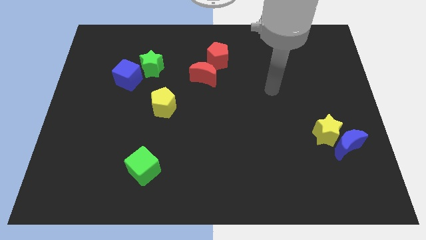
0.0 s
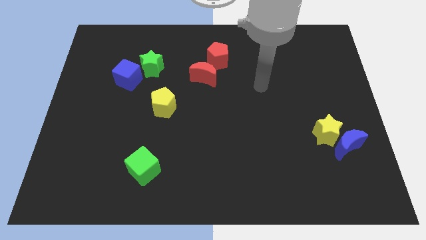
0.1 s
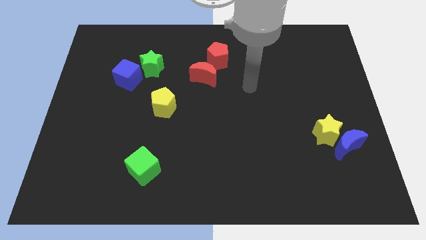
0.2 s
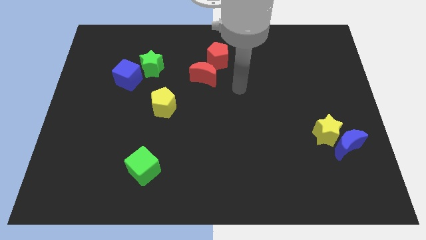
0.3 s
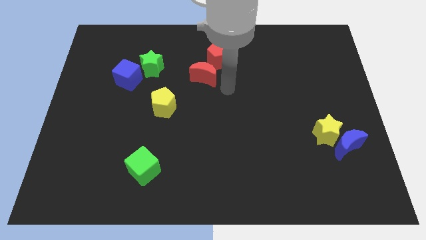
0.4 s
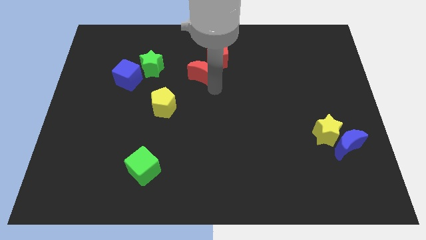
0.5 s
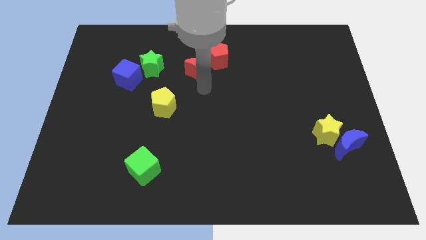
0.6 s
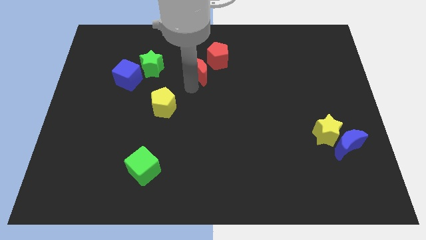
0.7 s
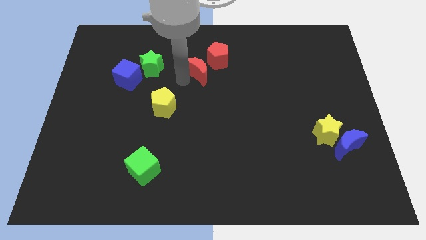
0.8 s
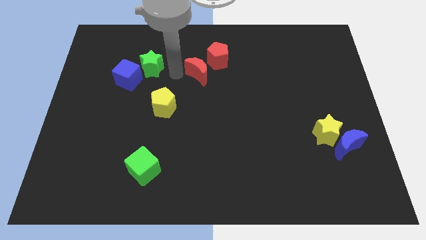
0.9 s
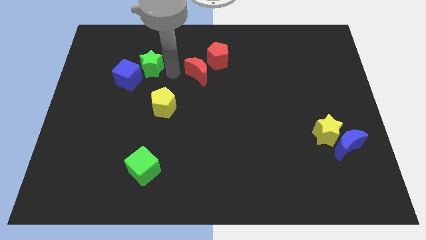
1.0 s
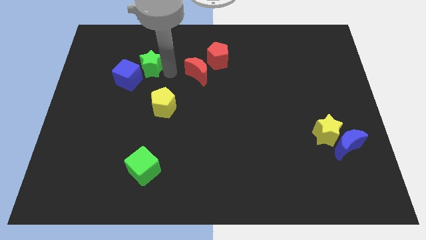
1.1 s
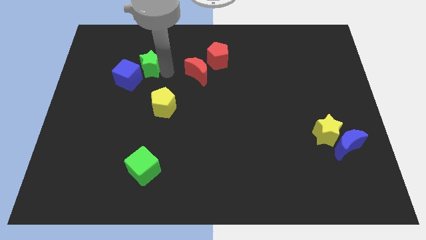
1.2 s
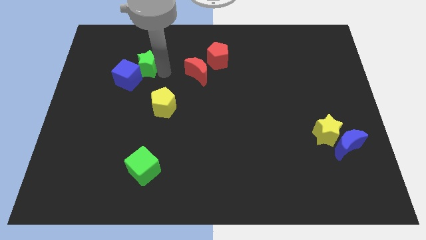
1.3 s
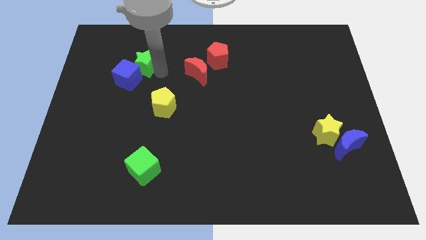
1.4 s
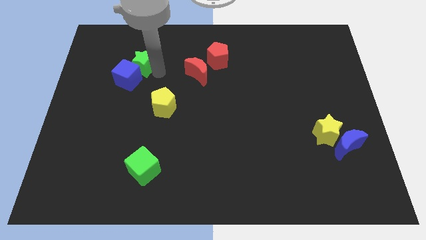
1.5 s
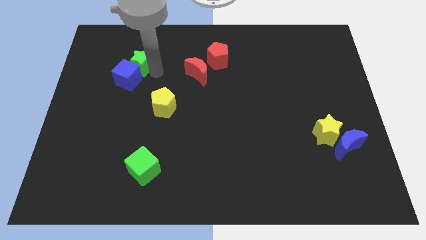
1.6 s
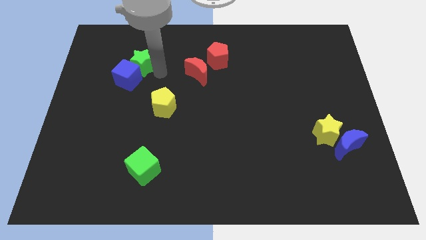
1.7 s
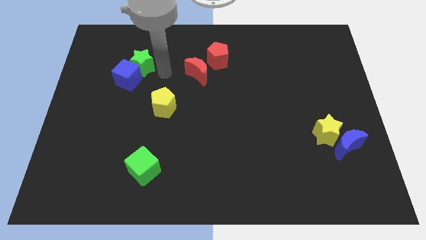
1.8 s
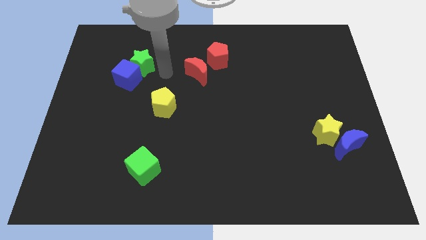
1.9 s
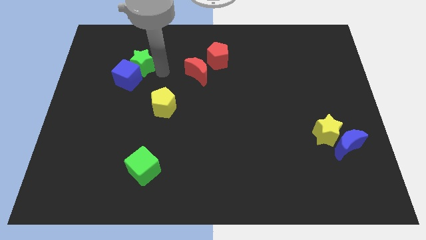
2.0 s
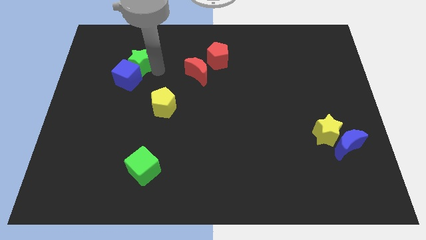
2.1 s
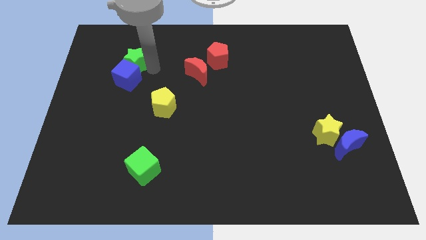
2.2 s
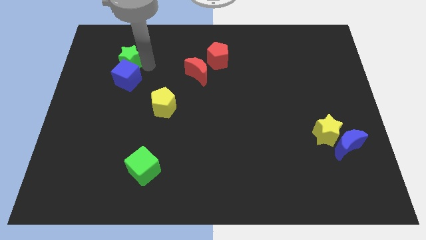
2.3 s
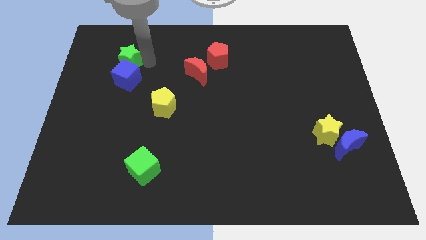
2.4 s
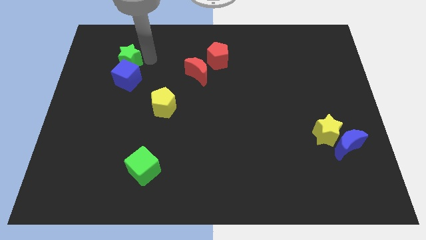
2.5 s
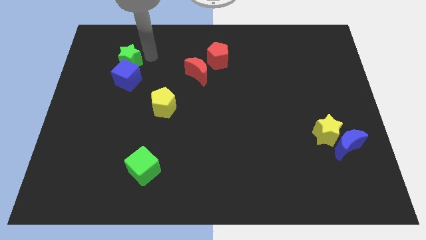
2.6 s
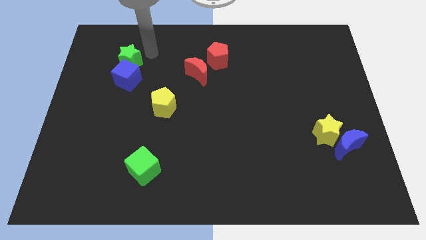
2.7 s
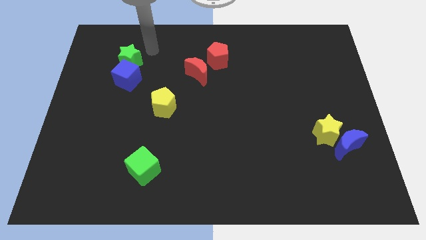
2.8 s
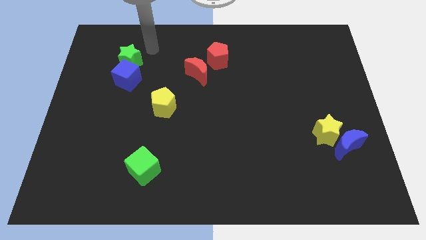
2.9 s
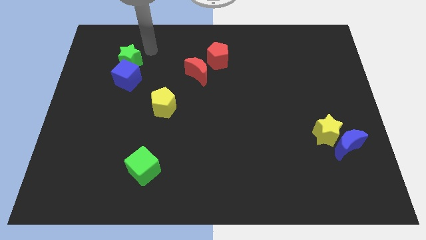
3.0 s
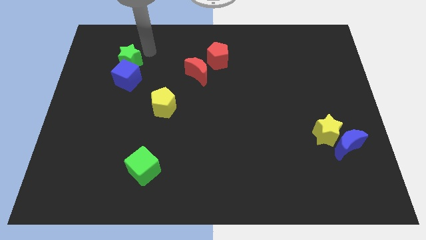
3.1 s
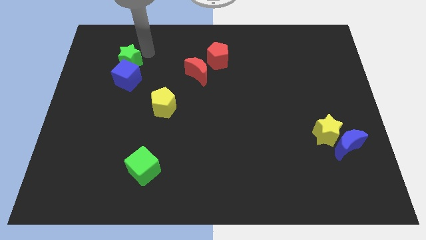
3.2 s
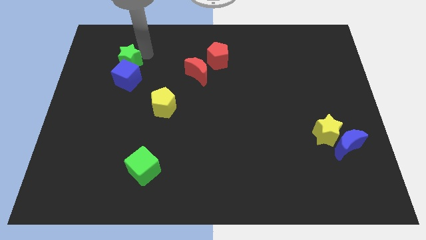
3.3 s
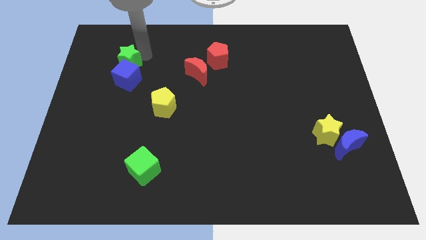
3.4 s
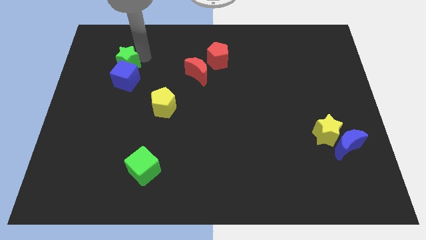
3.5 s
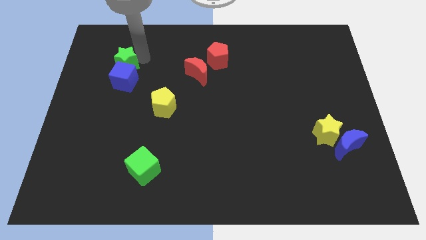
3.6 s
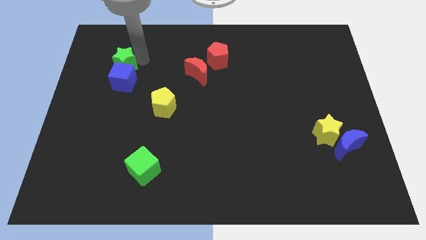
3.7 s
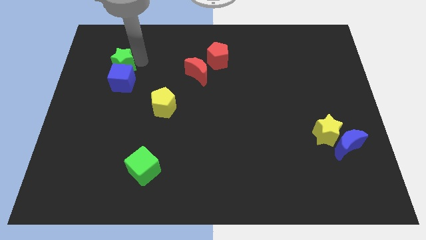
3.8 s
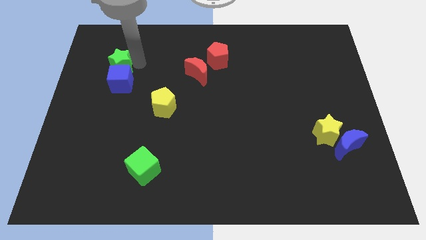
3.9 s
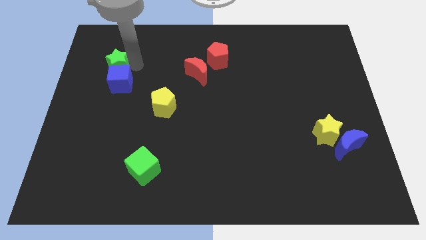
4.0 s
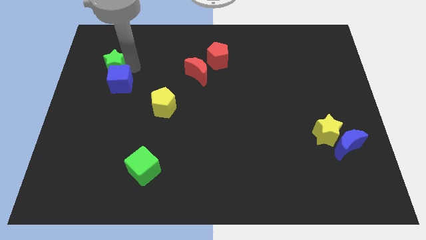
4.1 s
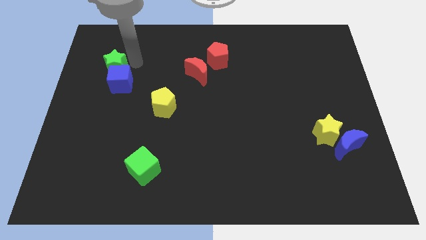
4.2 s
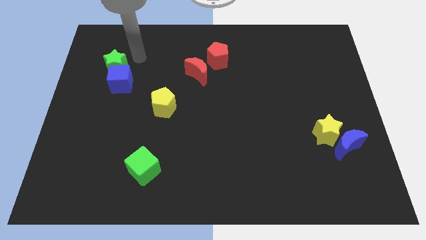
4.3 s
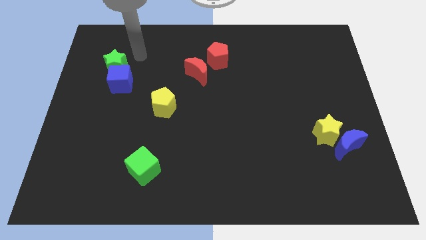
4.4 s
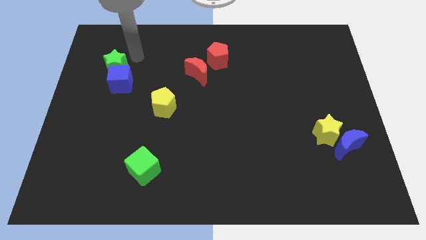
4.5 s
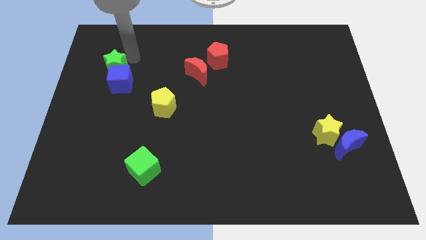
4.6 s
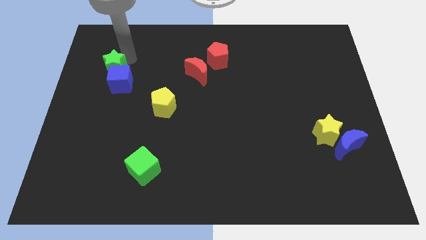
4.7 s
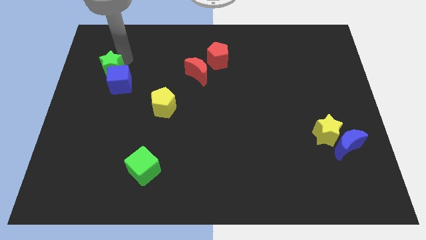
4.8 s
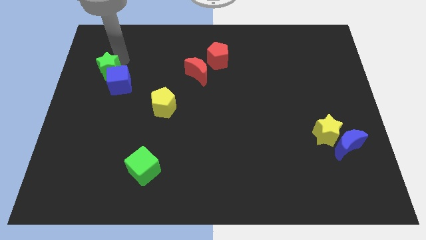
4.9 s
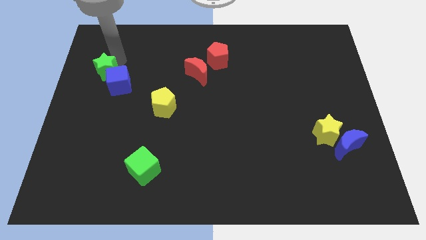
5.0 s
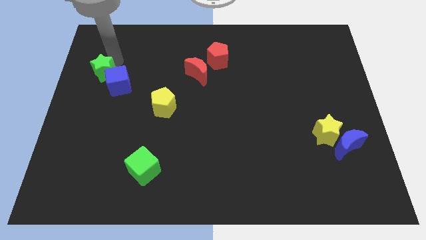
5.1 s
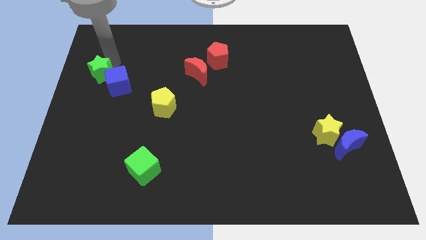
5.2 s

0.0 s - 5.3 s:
slide the green star to the left side of the board
